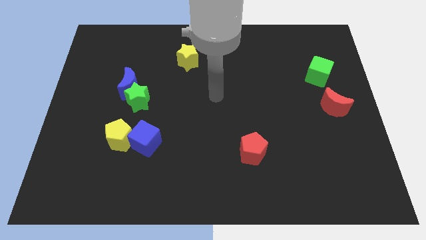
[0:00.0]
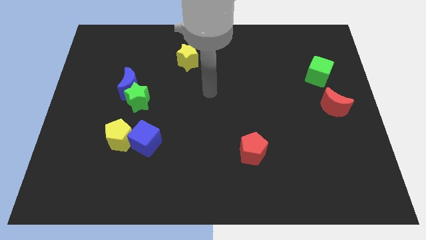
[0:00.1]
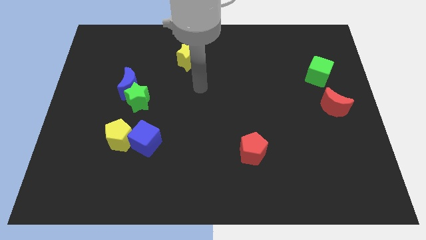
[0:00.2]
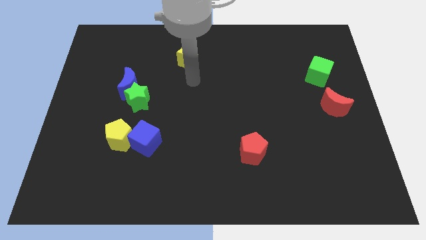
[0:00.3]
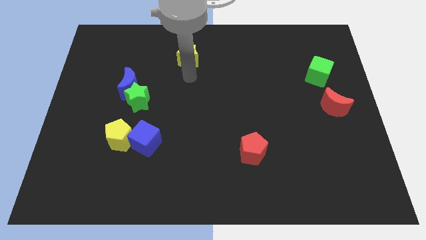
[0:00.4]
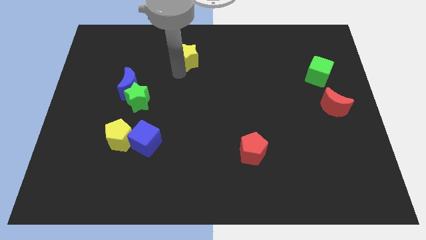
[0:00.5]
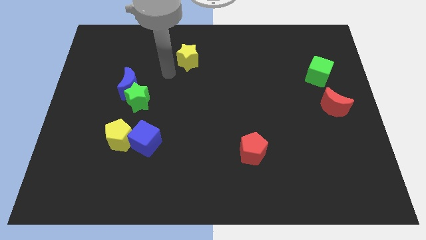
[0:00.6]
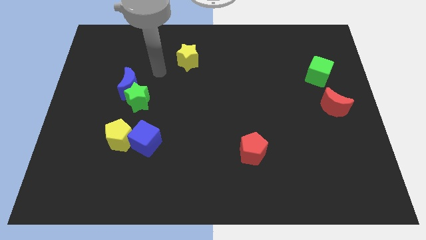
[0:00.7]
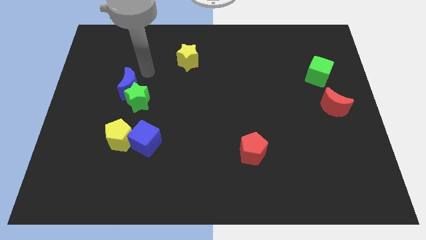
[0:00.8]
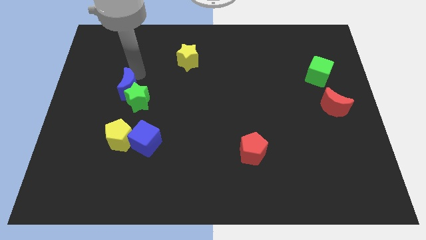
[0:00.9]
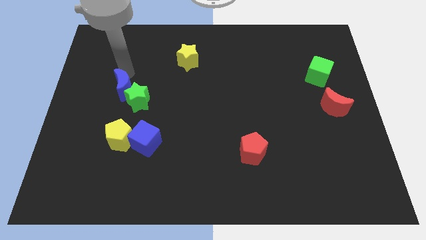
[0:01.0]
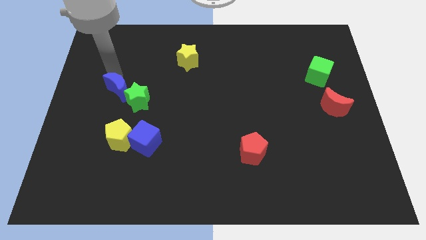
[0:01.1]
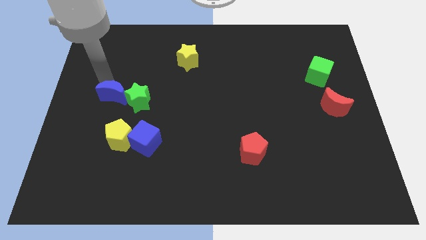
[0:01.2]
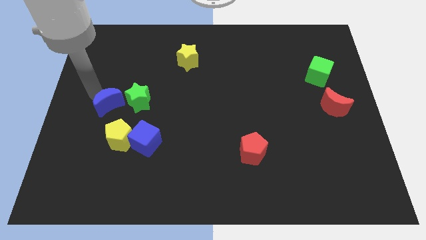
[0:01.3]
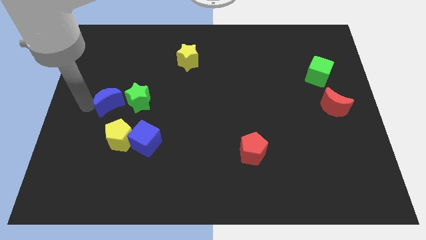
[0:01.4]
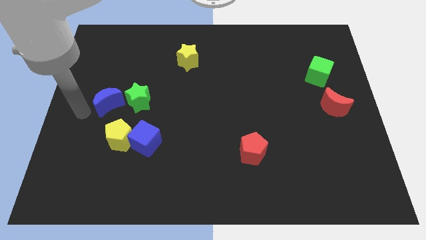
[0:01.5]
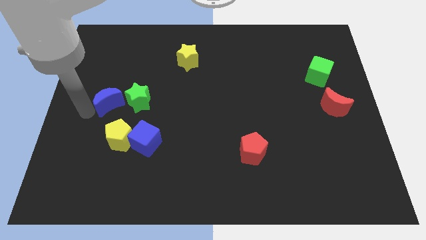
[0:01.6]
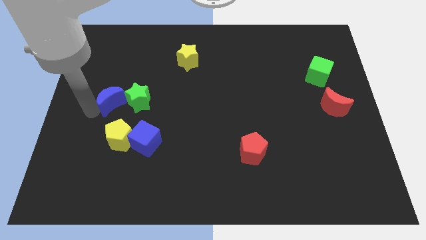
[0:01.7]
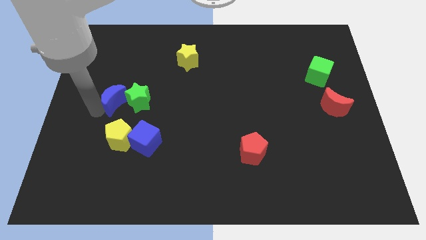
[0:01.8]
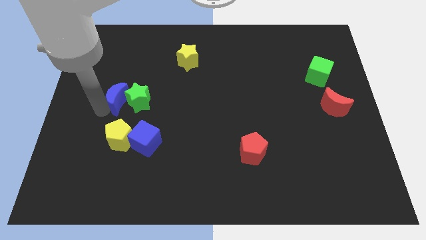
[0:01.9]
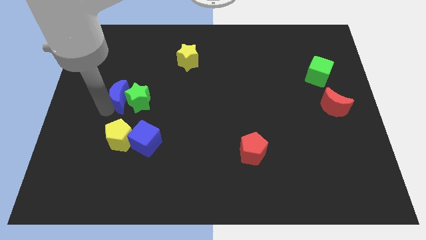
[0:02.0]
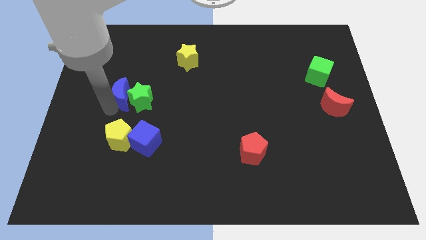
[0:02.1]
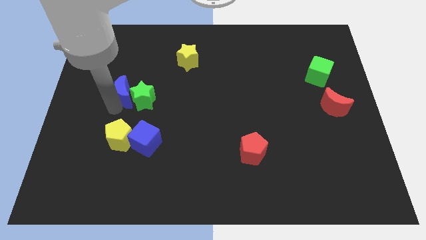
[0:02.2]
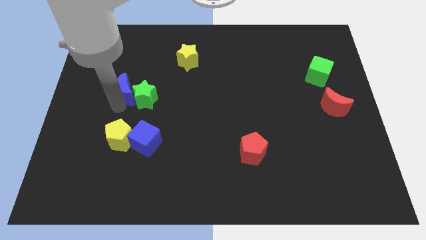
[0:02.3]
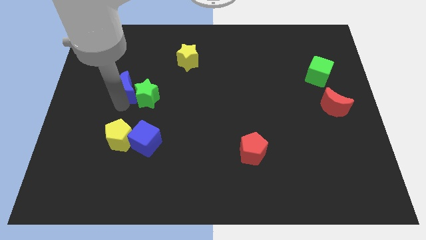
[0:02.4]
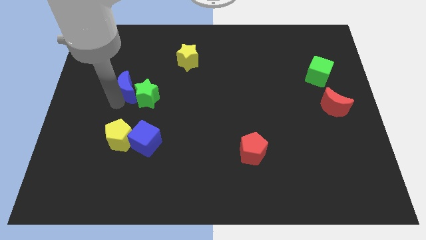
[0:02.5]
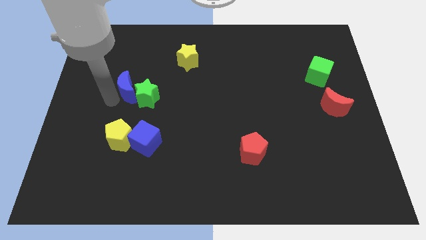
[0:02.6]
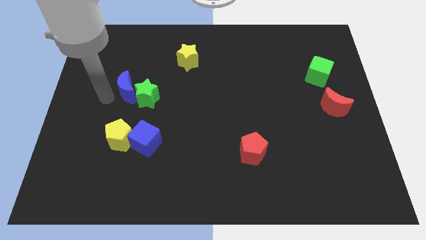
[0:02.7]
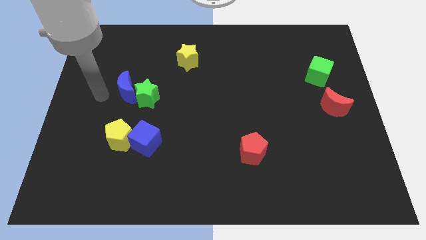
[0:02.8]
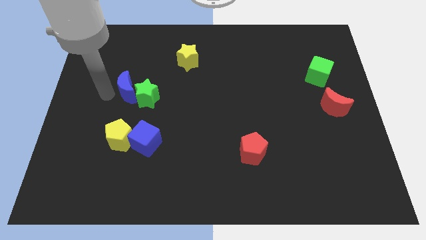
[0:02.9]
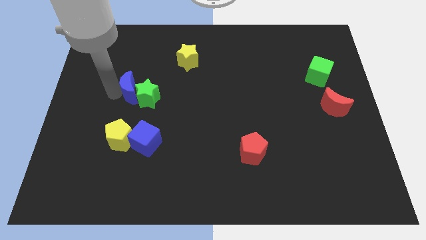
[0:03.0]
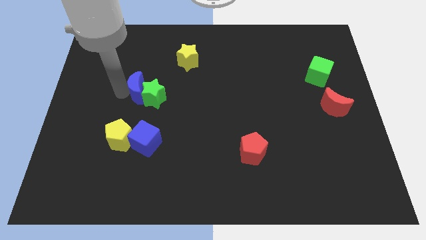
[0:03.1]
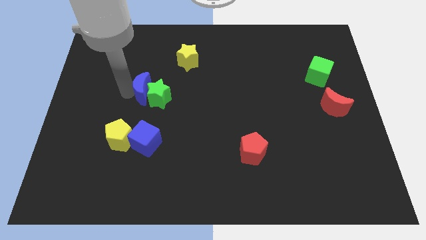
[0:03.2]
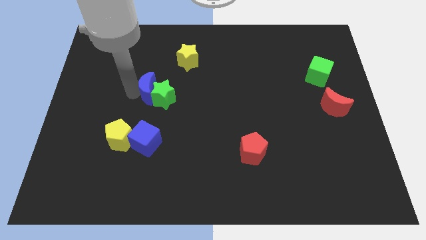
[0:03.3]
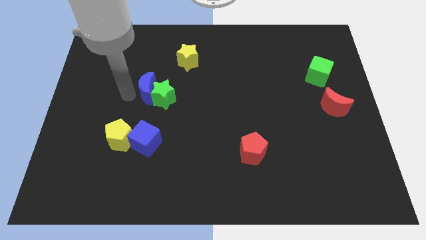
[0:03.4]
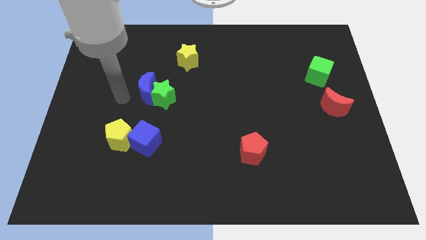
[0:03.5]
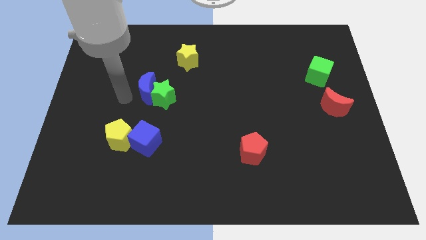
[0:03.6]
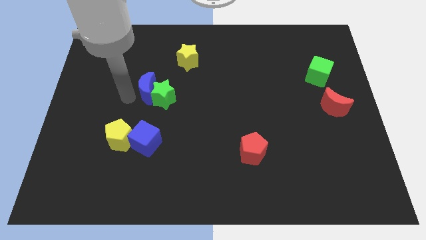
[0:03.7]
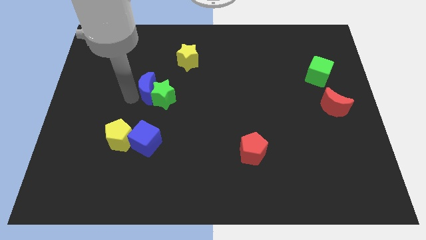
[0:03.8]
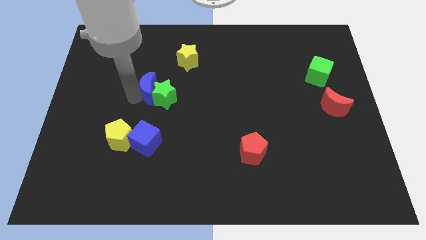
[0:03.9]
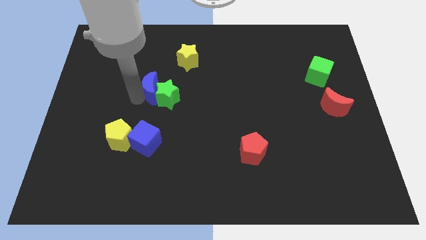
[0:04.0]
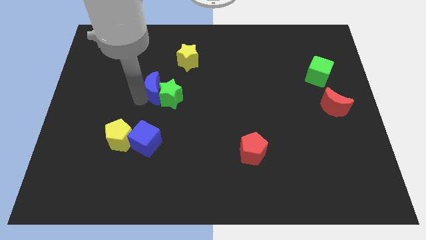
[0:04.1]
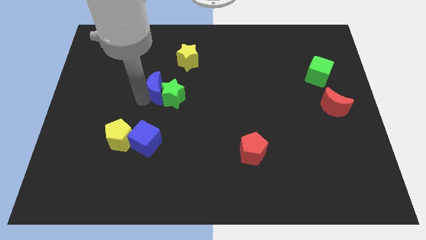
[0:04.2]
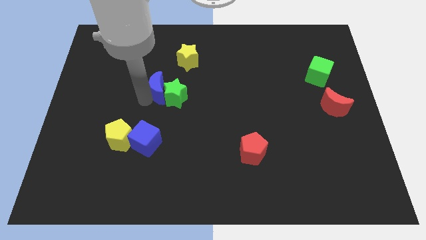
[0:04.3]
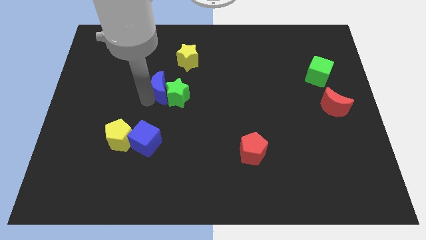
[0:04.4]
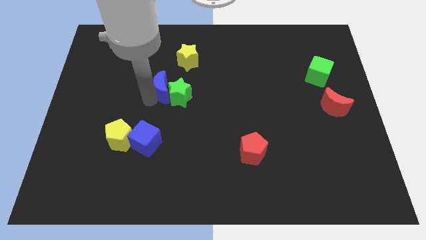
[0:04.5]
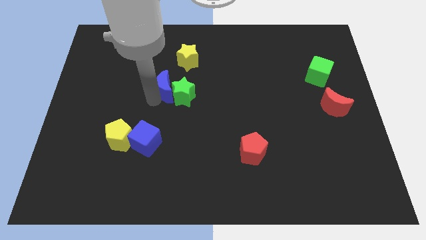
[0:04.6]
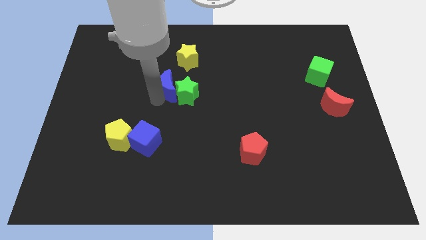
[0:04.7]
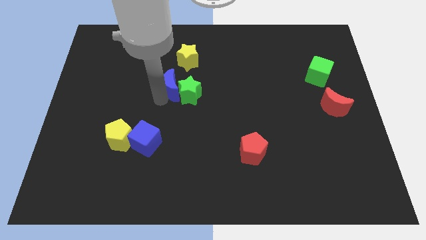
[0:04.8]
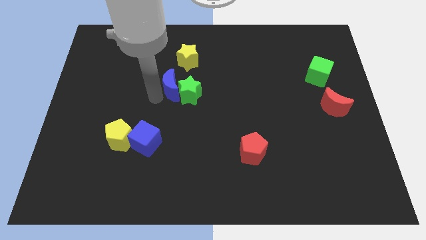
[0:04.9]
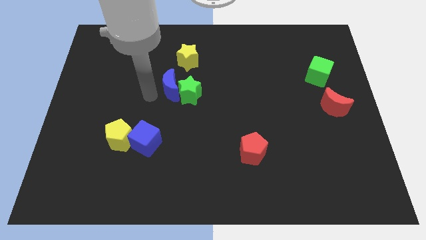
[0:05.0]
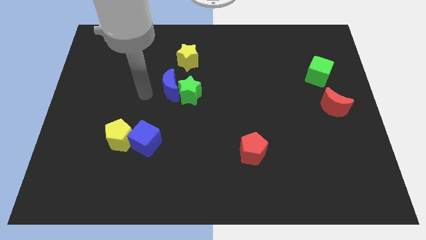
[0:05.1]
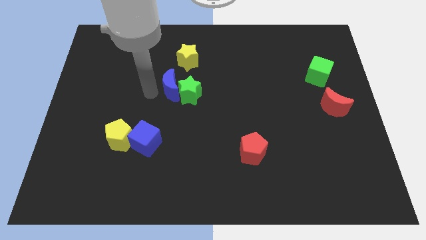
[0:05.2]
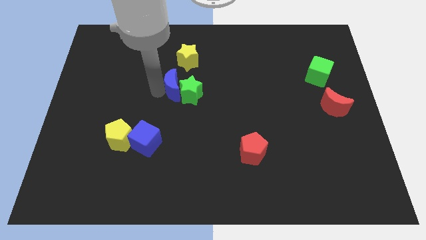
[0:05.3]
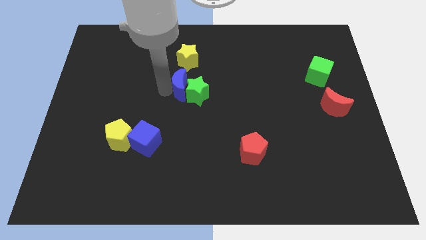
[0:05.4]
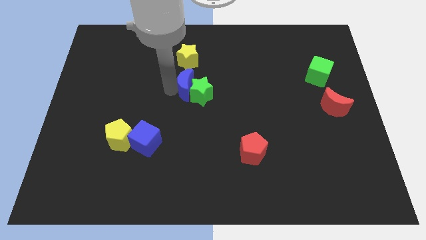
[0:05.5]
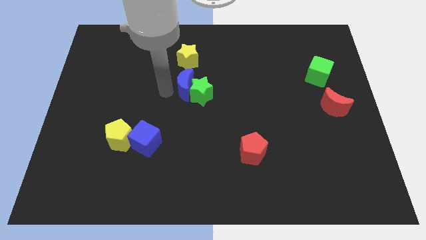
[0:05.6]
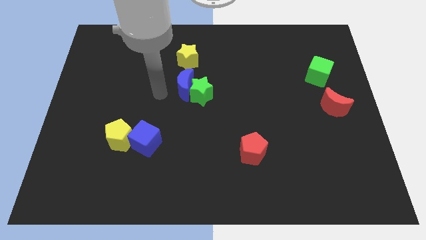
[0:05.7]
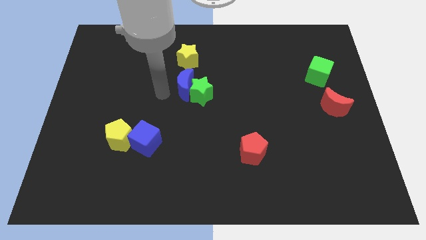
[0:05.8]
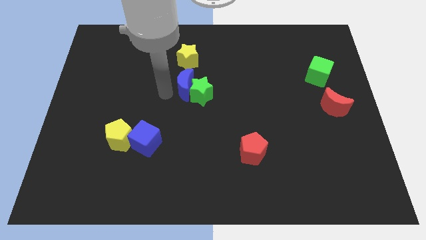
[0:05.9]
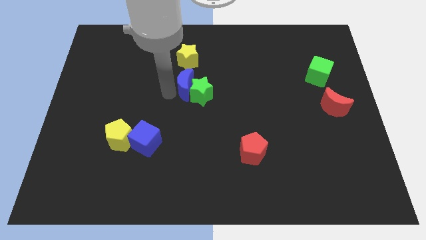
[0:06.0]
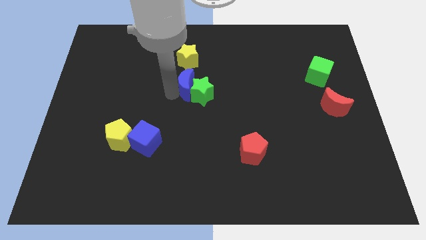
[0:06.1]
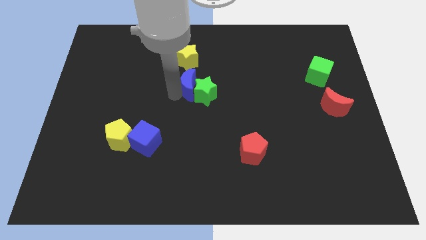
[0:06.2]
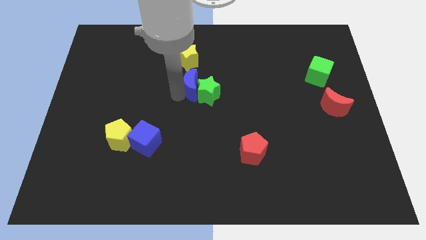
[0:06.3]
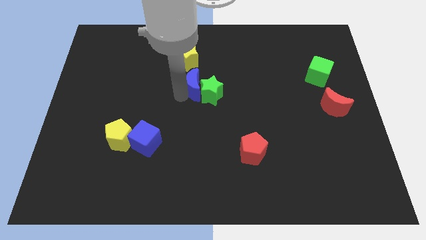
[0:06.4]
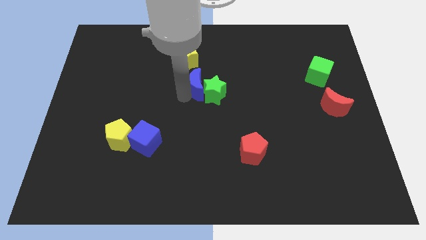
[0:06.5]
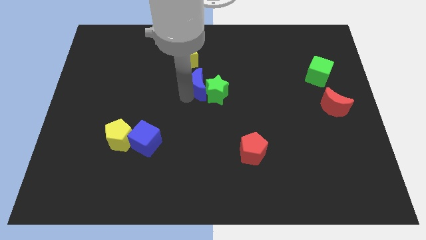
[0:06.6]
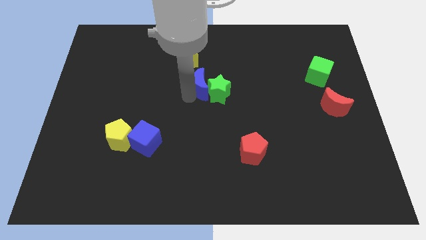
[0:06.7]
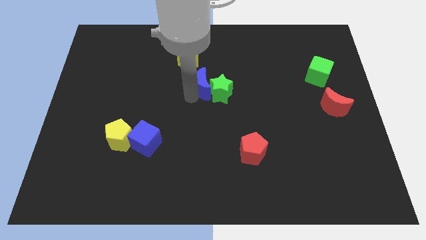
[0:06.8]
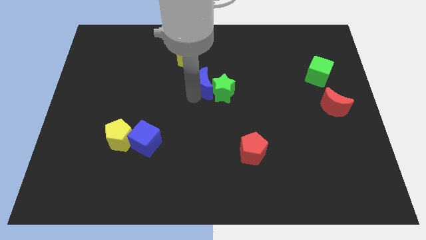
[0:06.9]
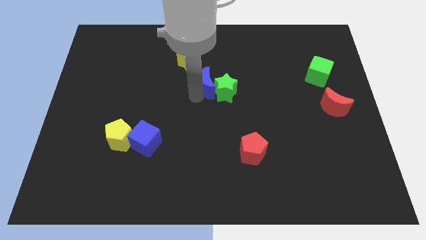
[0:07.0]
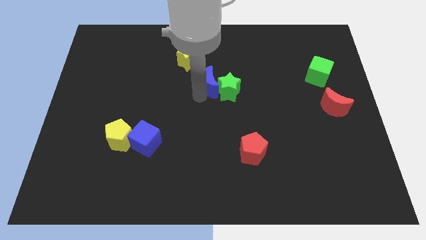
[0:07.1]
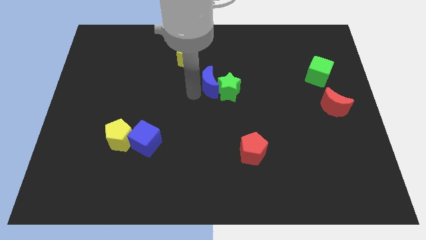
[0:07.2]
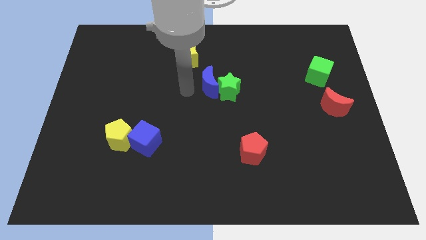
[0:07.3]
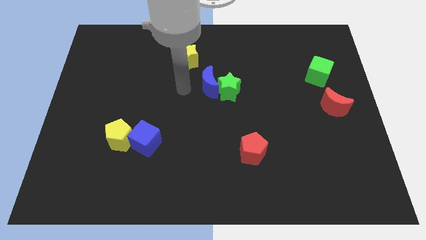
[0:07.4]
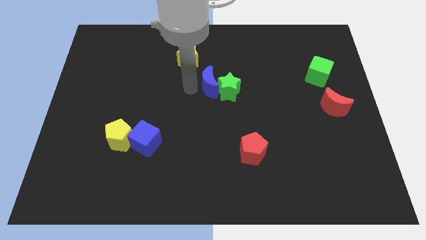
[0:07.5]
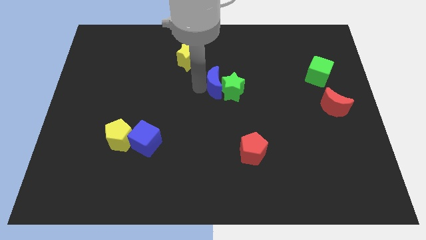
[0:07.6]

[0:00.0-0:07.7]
move the blue moon to the right

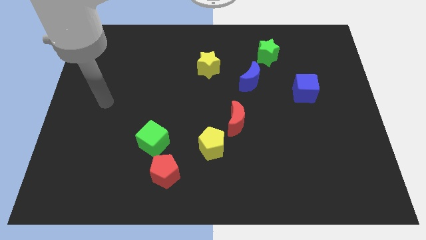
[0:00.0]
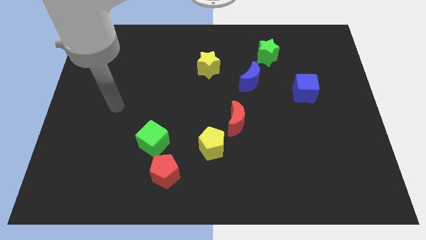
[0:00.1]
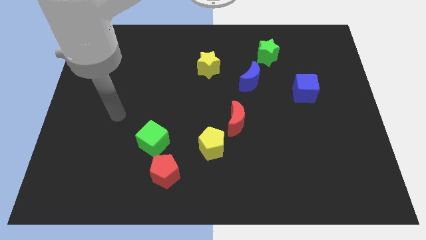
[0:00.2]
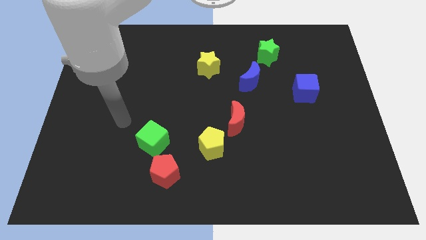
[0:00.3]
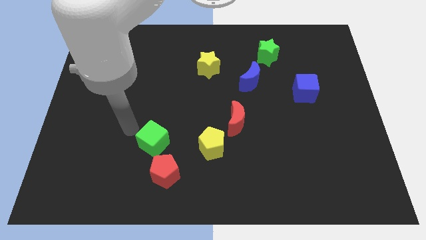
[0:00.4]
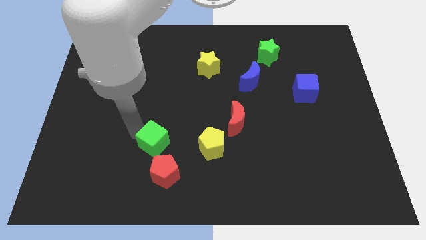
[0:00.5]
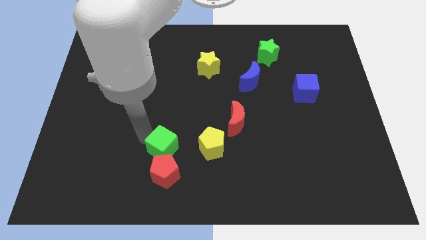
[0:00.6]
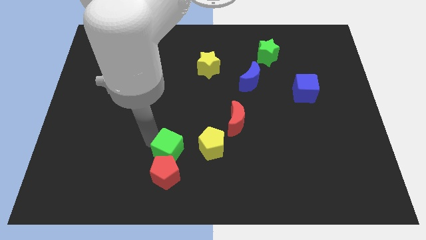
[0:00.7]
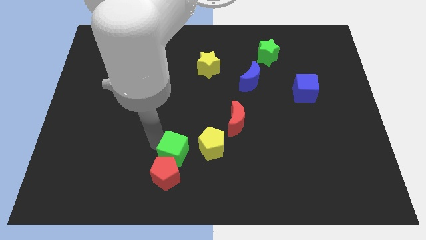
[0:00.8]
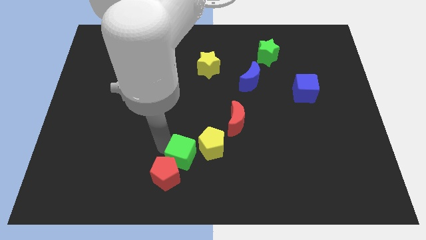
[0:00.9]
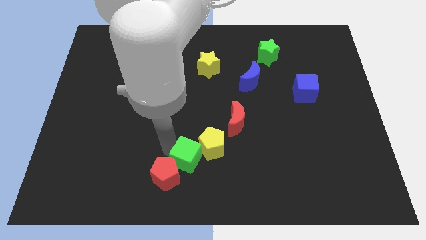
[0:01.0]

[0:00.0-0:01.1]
slightly move the green cube to the right
